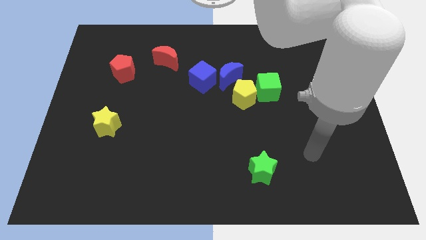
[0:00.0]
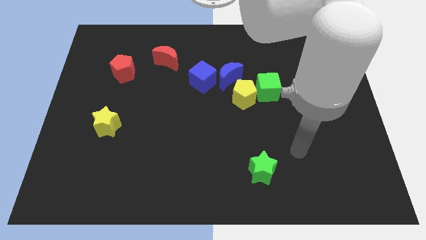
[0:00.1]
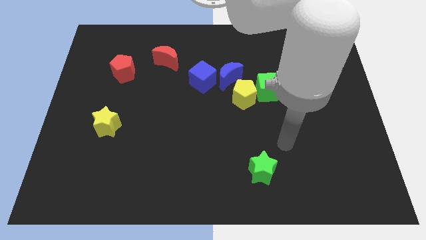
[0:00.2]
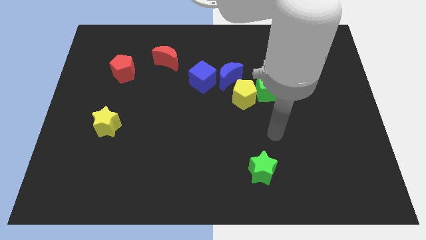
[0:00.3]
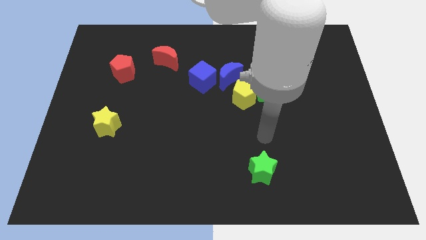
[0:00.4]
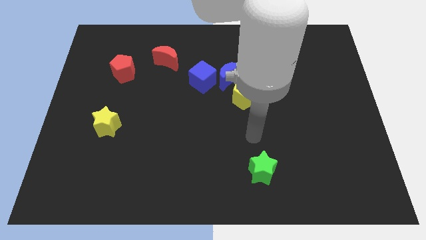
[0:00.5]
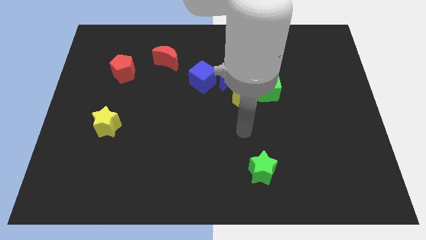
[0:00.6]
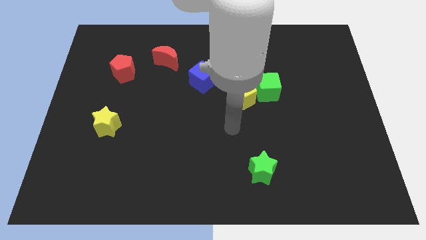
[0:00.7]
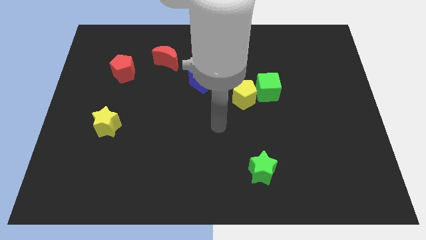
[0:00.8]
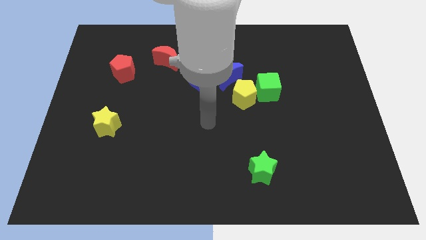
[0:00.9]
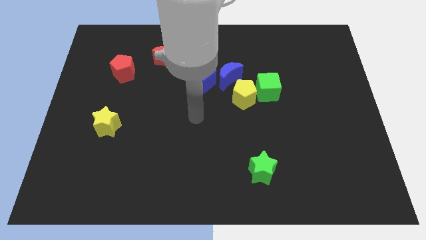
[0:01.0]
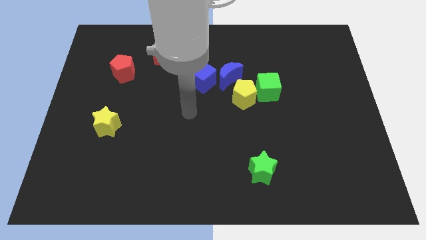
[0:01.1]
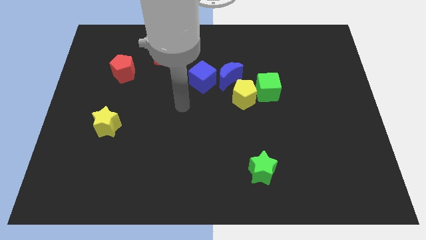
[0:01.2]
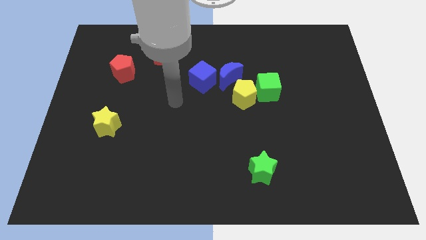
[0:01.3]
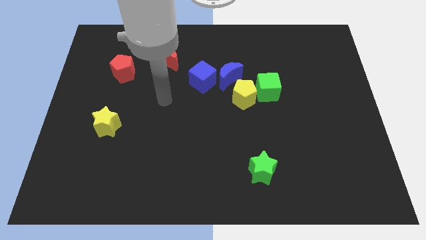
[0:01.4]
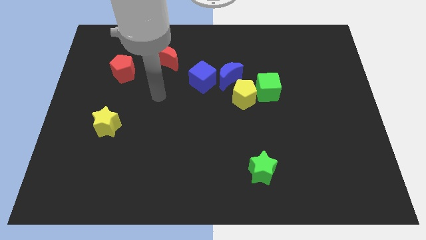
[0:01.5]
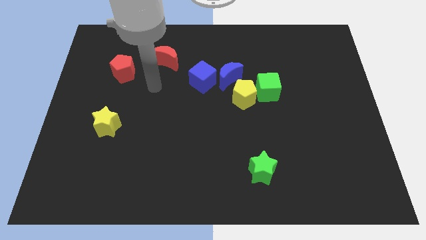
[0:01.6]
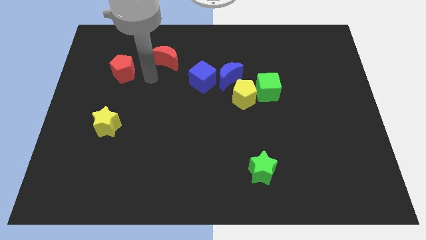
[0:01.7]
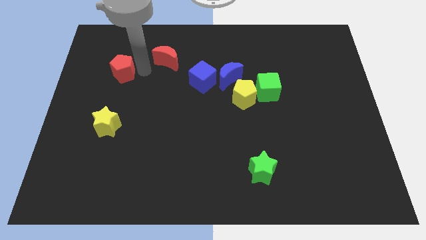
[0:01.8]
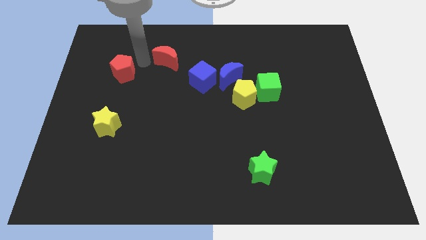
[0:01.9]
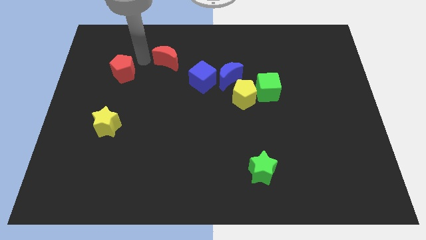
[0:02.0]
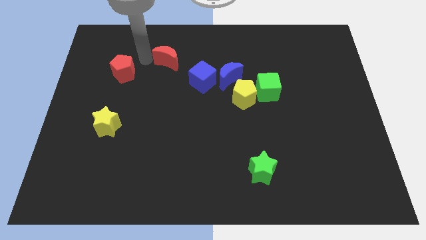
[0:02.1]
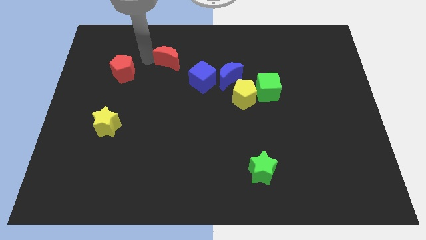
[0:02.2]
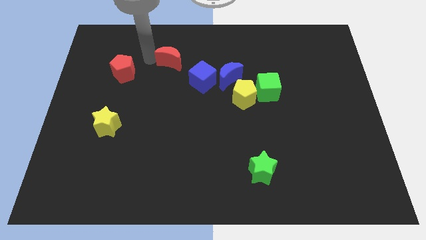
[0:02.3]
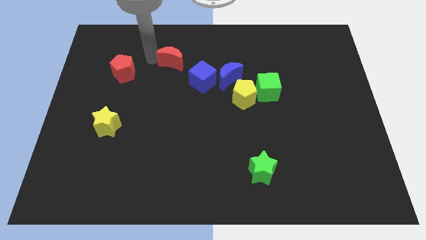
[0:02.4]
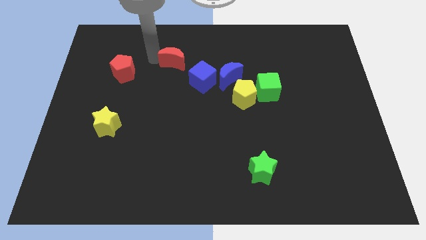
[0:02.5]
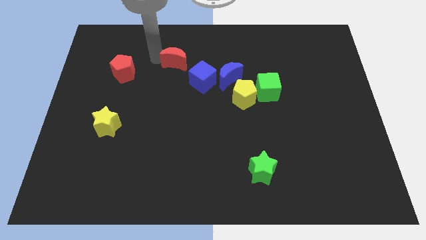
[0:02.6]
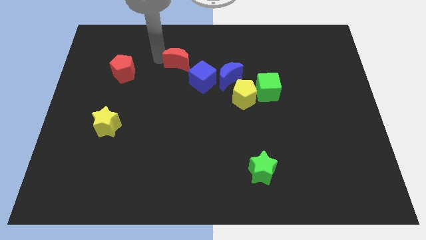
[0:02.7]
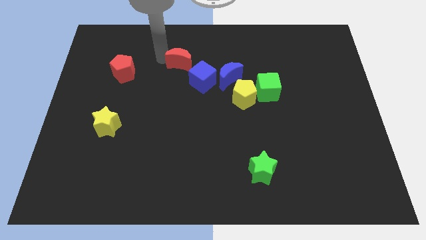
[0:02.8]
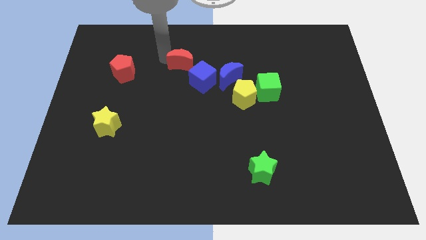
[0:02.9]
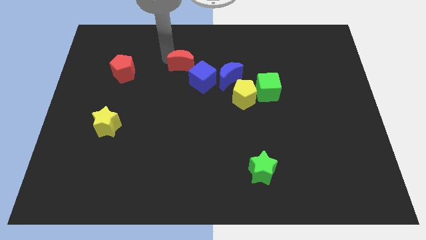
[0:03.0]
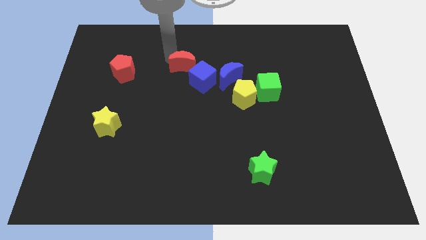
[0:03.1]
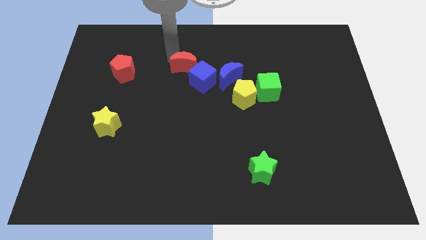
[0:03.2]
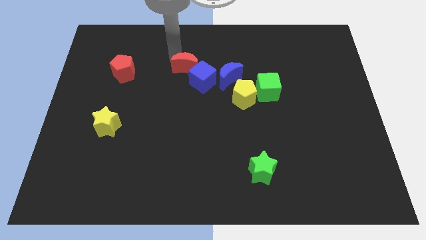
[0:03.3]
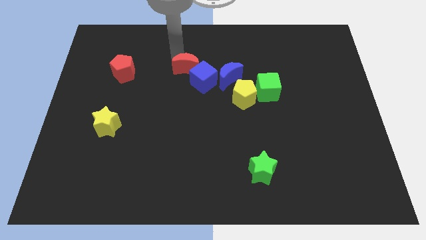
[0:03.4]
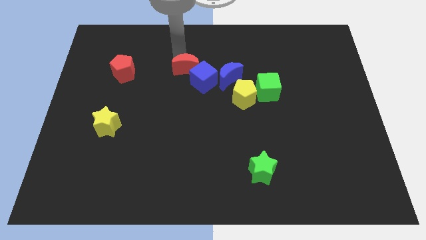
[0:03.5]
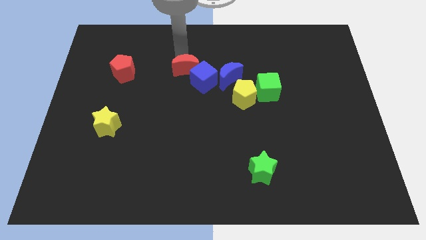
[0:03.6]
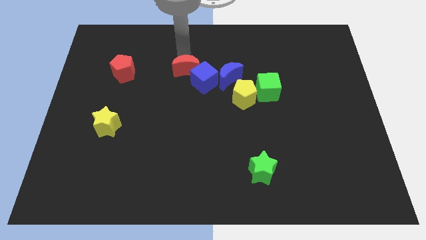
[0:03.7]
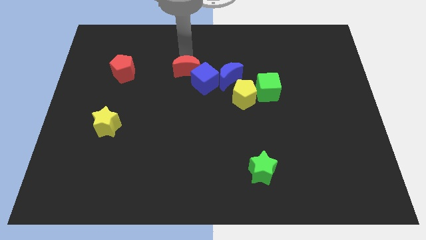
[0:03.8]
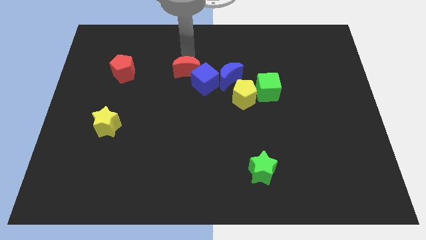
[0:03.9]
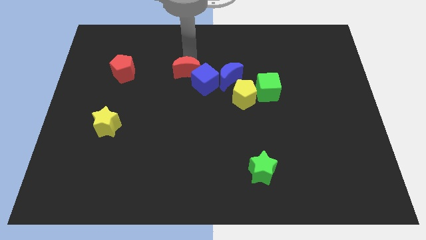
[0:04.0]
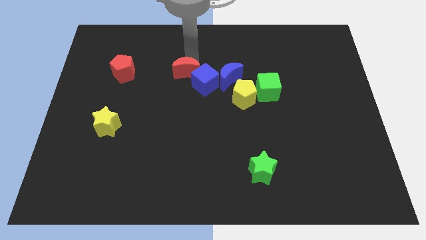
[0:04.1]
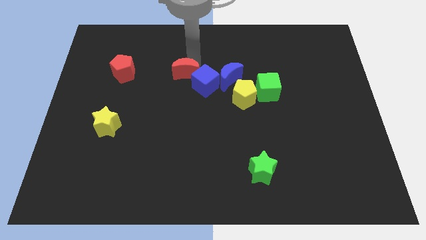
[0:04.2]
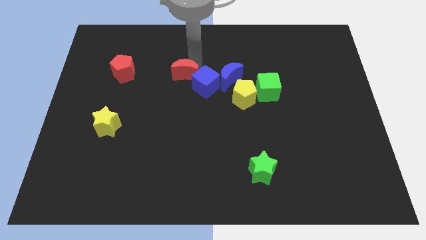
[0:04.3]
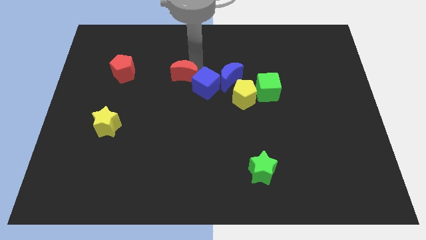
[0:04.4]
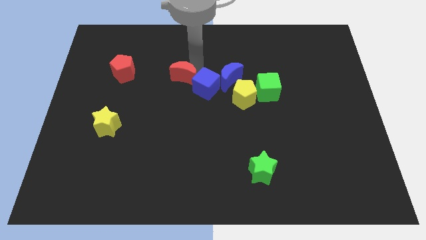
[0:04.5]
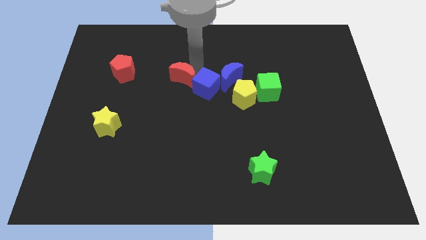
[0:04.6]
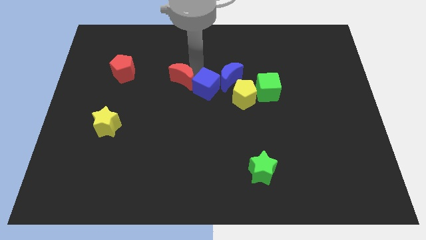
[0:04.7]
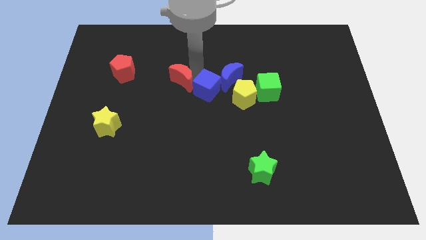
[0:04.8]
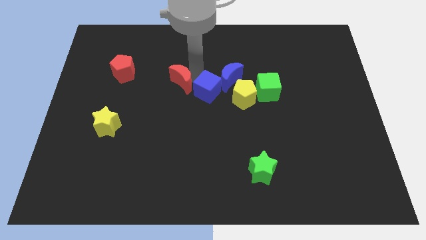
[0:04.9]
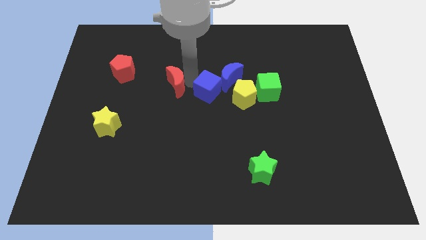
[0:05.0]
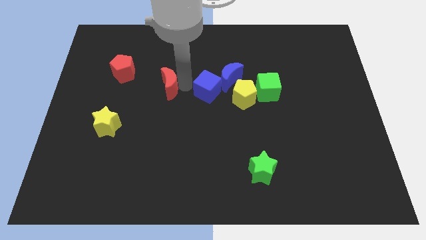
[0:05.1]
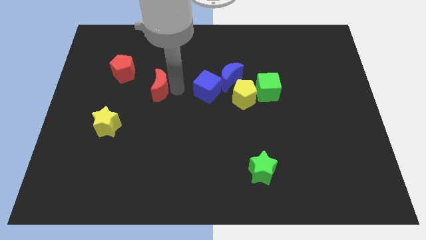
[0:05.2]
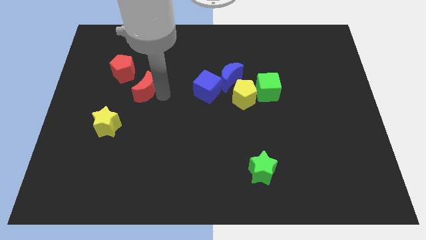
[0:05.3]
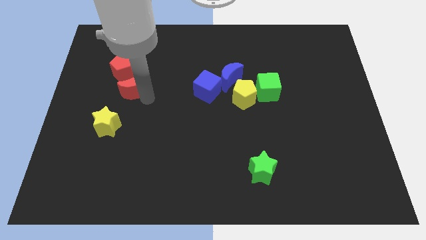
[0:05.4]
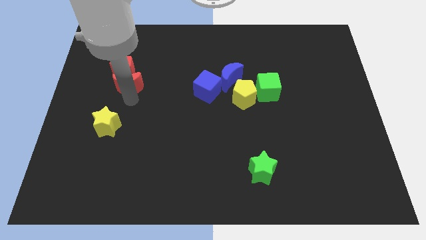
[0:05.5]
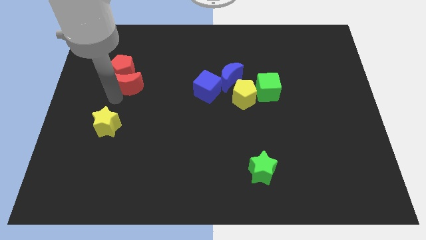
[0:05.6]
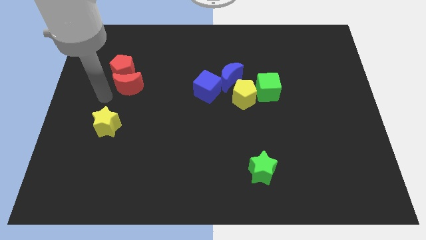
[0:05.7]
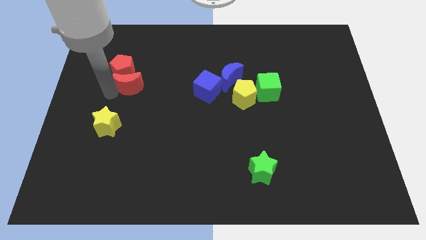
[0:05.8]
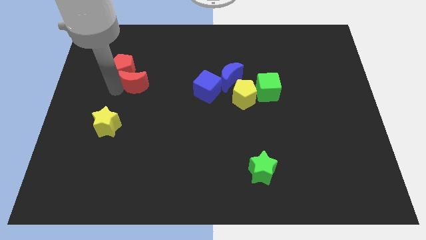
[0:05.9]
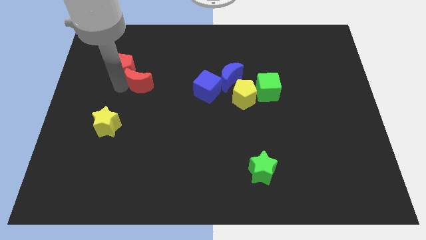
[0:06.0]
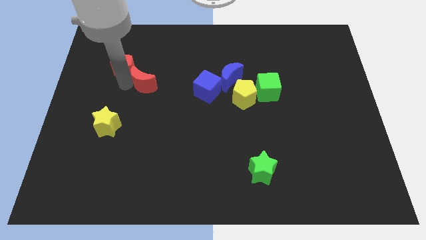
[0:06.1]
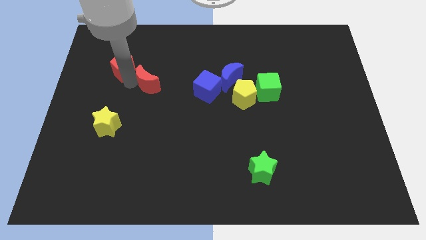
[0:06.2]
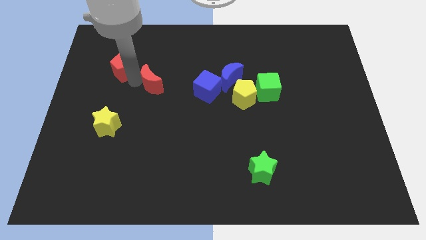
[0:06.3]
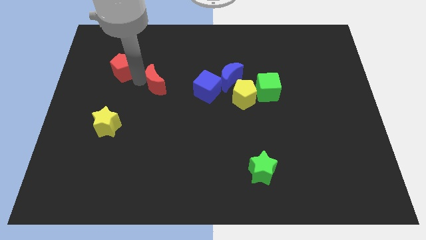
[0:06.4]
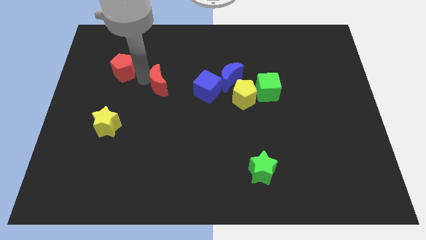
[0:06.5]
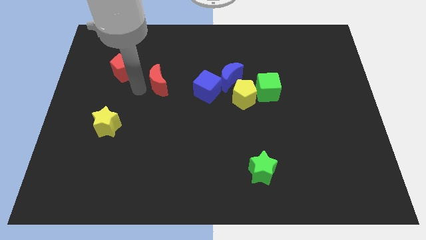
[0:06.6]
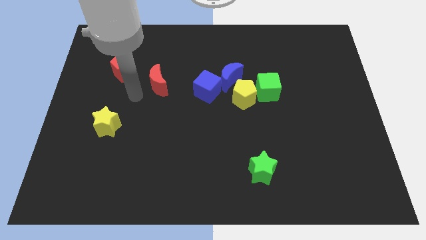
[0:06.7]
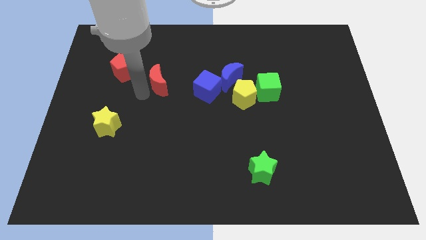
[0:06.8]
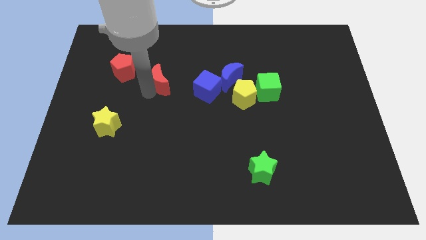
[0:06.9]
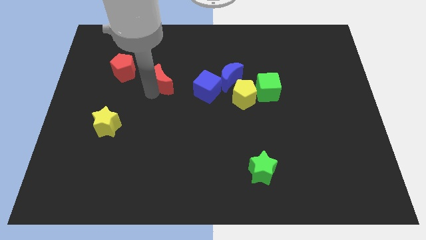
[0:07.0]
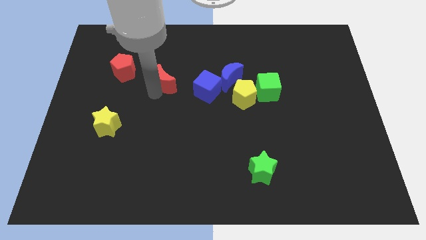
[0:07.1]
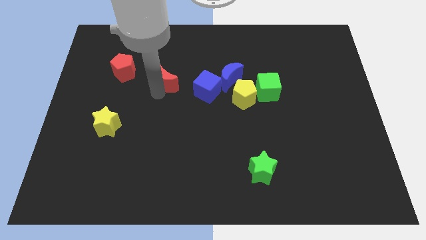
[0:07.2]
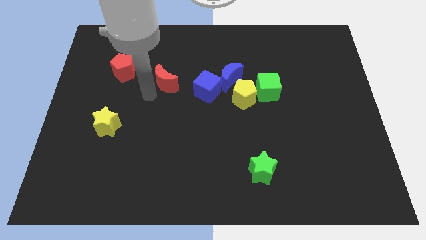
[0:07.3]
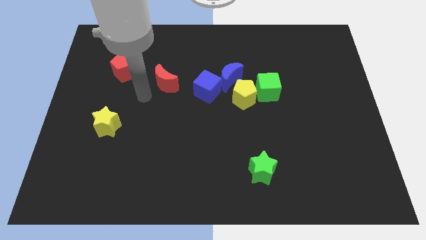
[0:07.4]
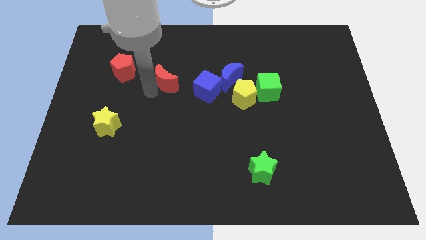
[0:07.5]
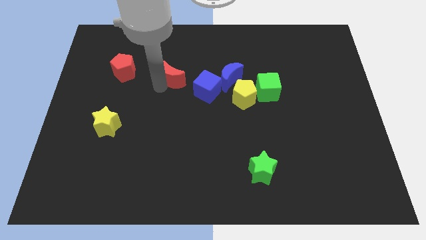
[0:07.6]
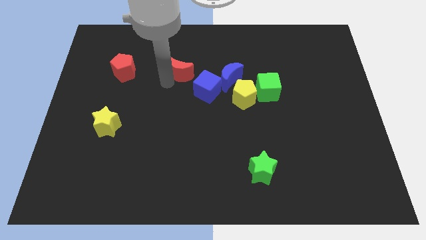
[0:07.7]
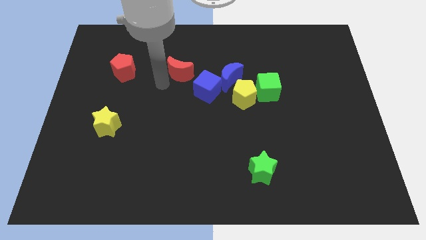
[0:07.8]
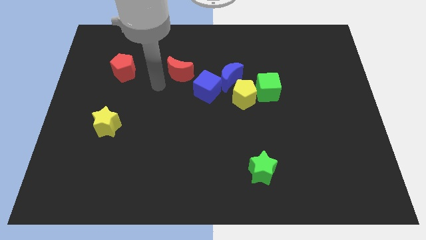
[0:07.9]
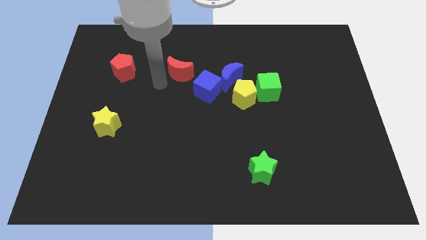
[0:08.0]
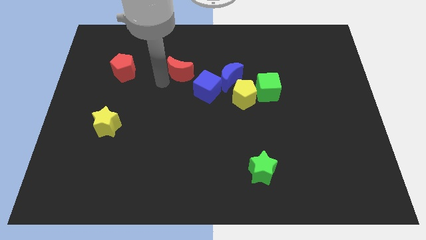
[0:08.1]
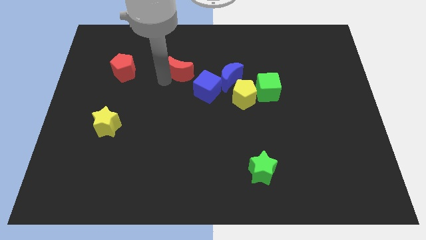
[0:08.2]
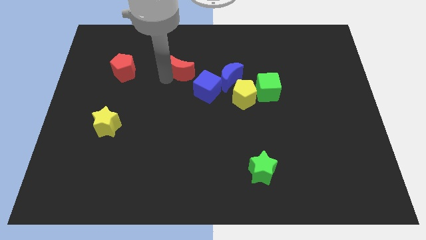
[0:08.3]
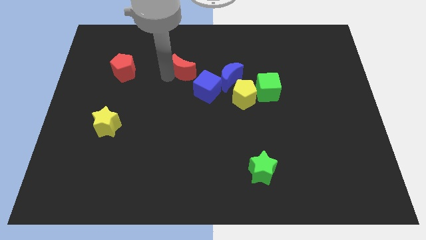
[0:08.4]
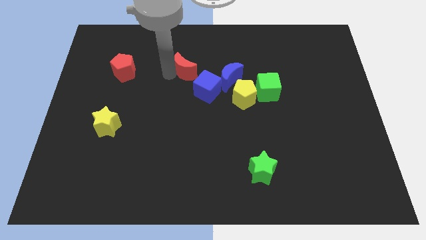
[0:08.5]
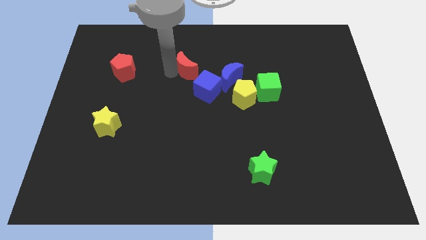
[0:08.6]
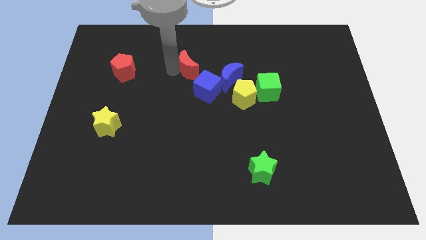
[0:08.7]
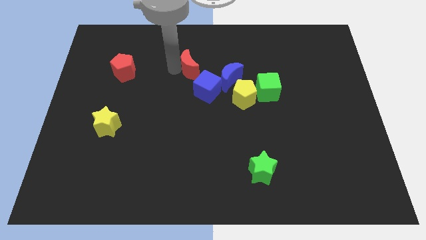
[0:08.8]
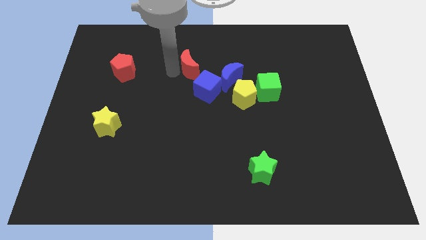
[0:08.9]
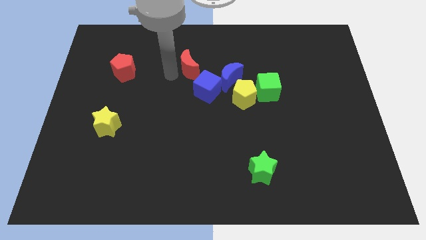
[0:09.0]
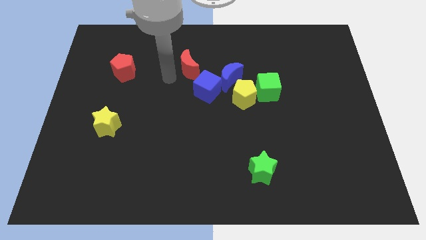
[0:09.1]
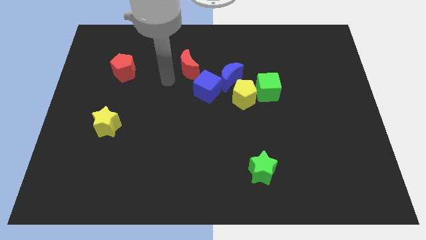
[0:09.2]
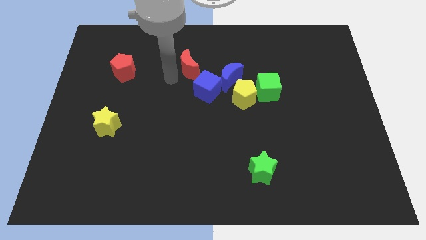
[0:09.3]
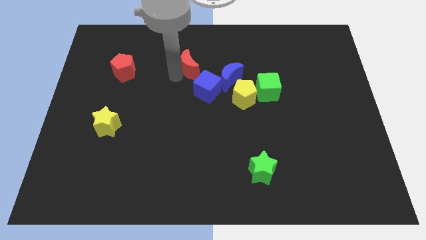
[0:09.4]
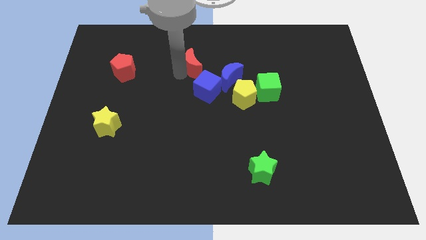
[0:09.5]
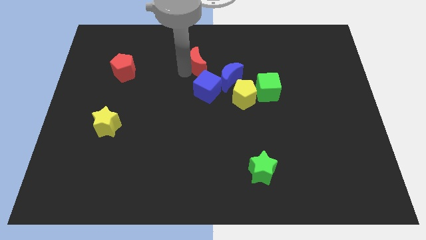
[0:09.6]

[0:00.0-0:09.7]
push the red moon to the right slightly
